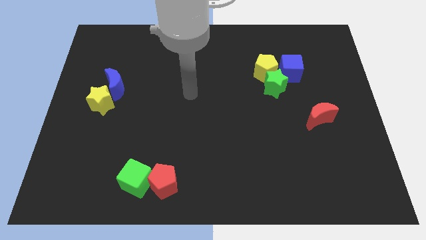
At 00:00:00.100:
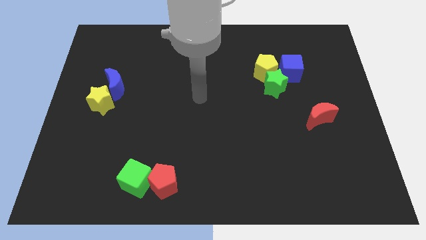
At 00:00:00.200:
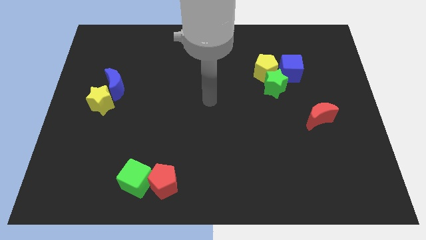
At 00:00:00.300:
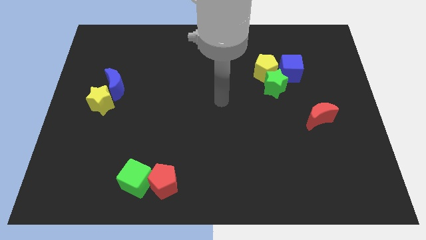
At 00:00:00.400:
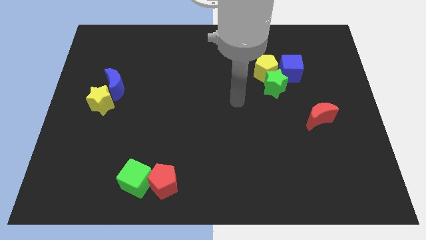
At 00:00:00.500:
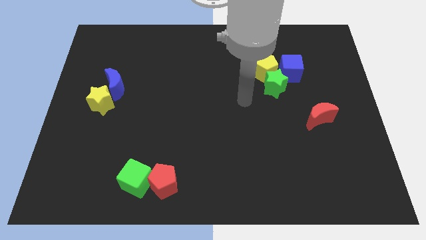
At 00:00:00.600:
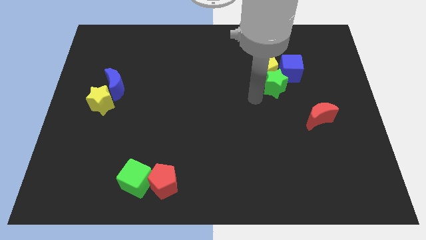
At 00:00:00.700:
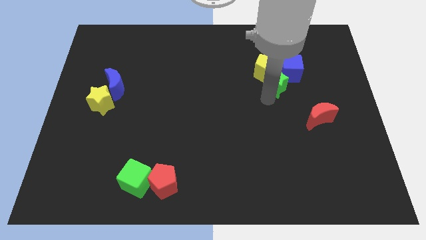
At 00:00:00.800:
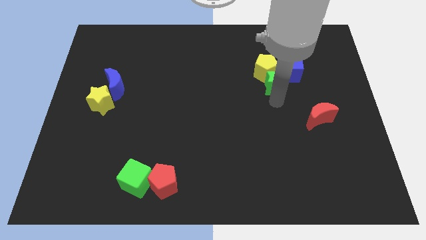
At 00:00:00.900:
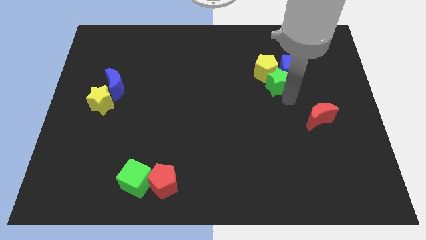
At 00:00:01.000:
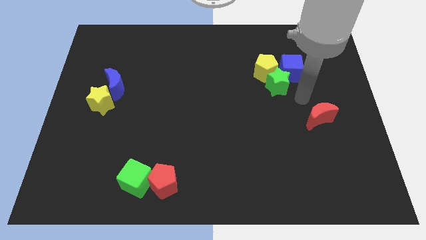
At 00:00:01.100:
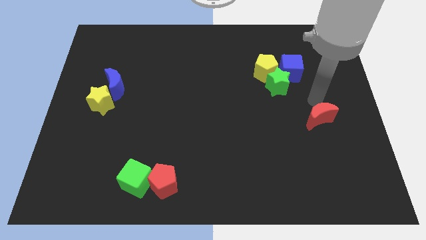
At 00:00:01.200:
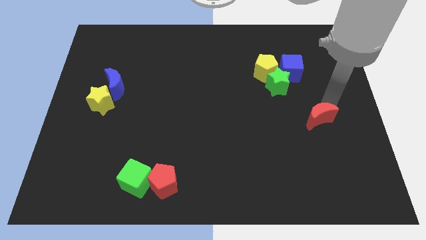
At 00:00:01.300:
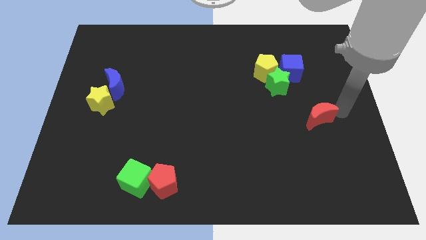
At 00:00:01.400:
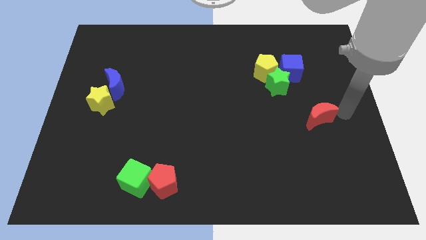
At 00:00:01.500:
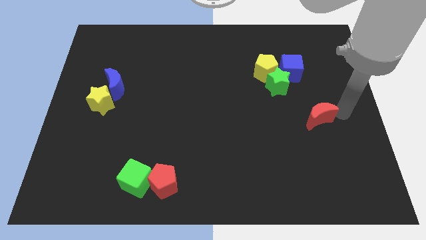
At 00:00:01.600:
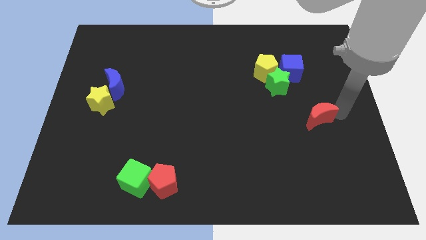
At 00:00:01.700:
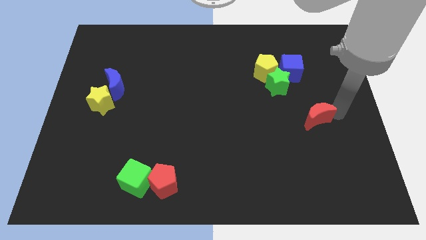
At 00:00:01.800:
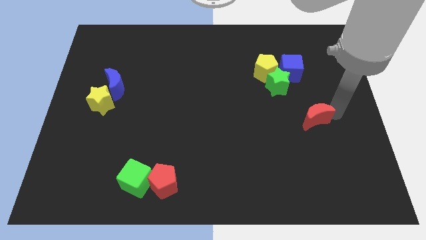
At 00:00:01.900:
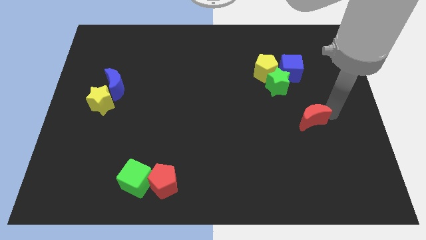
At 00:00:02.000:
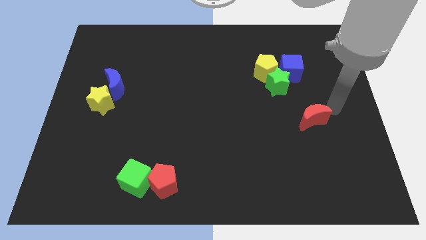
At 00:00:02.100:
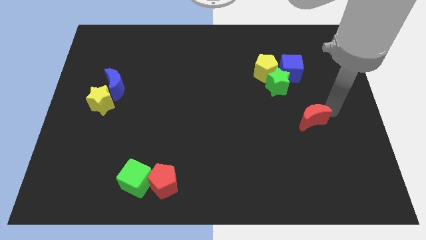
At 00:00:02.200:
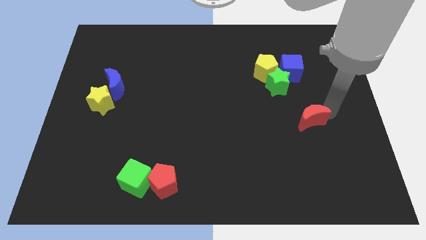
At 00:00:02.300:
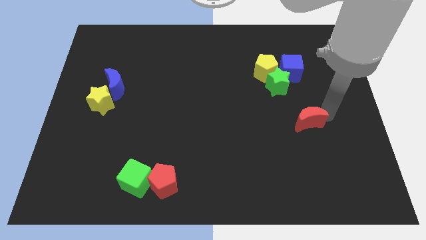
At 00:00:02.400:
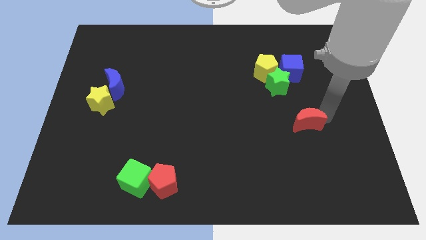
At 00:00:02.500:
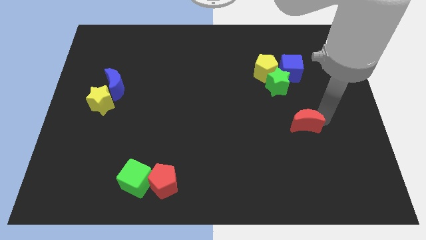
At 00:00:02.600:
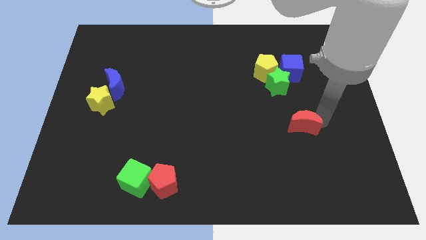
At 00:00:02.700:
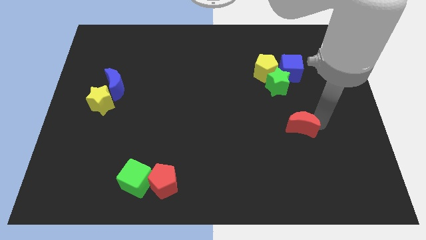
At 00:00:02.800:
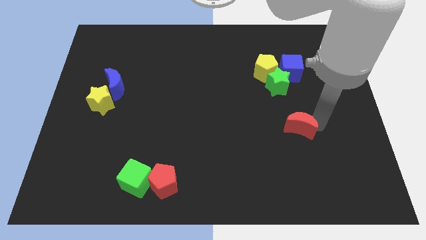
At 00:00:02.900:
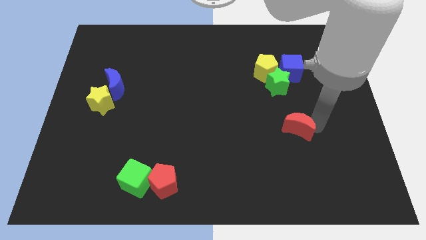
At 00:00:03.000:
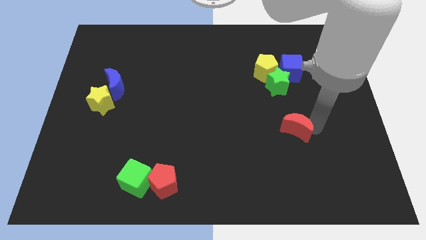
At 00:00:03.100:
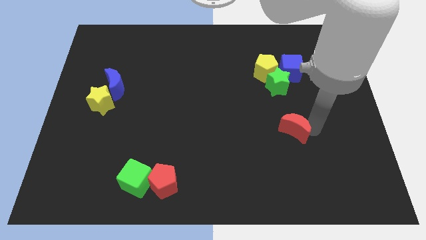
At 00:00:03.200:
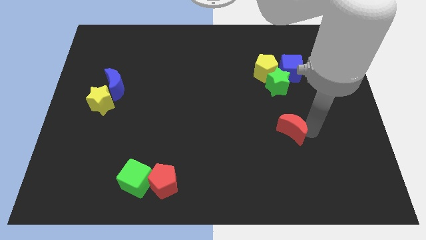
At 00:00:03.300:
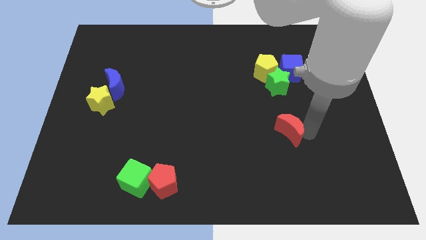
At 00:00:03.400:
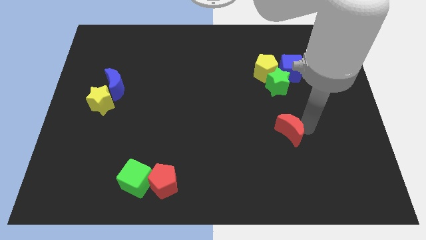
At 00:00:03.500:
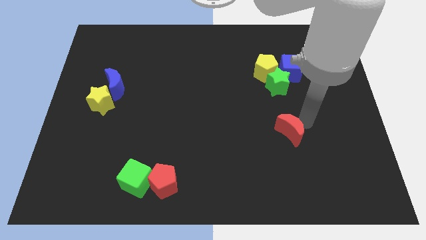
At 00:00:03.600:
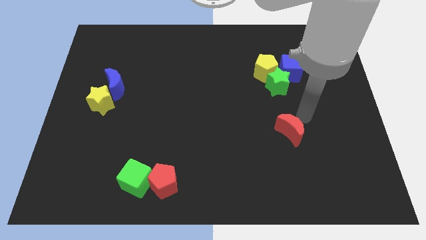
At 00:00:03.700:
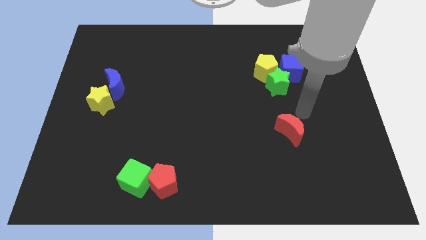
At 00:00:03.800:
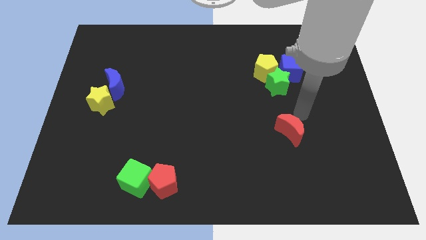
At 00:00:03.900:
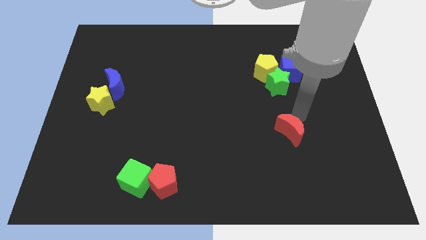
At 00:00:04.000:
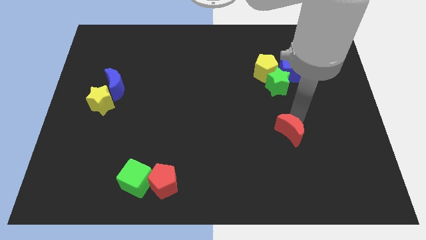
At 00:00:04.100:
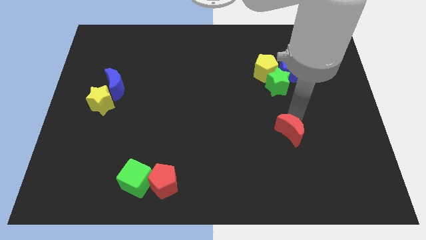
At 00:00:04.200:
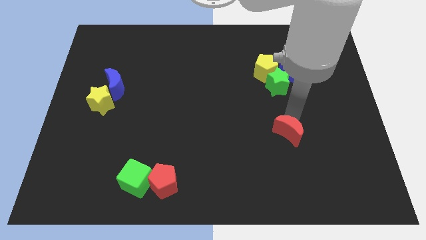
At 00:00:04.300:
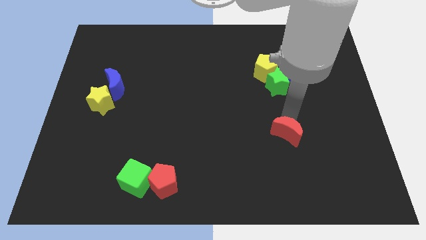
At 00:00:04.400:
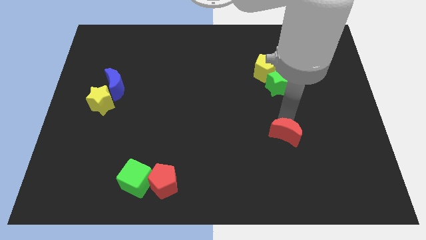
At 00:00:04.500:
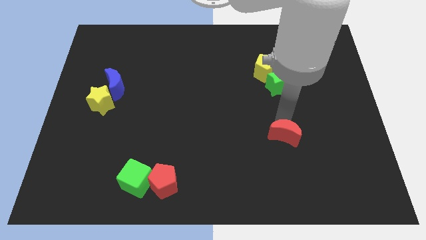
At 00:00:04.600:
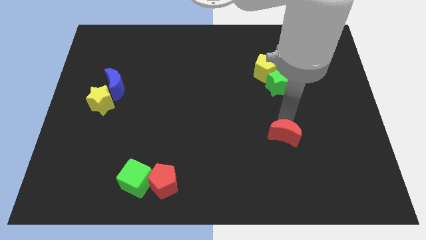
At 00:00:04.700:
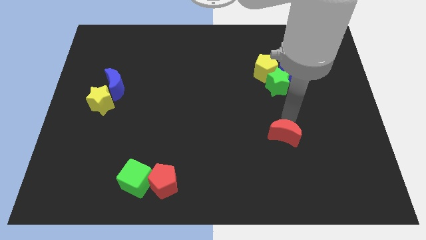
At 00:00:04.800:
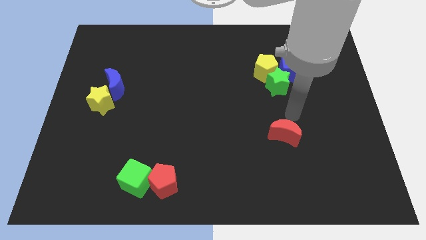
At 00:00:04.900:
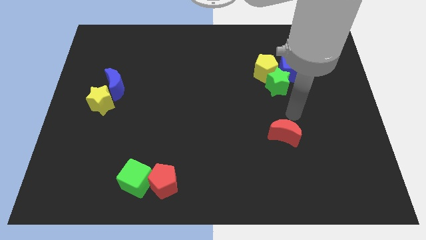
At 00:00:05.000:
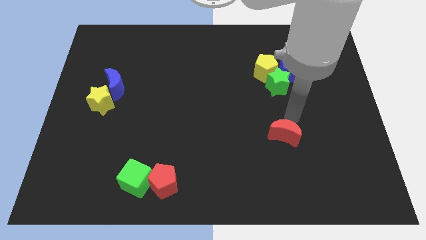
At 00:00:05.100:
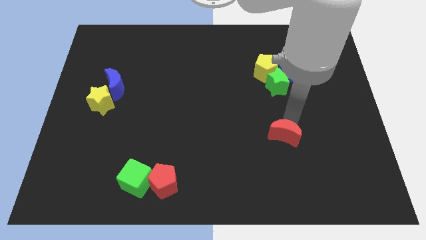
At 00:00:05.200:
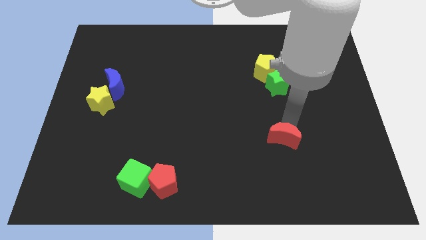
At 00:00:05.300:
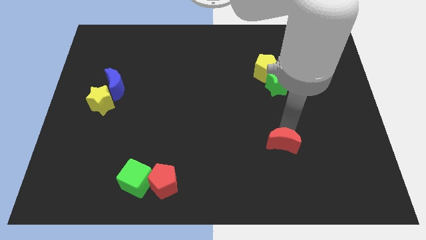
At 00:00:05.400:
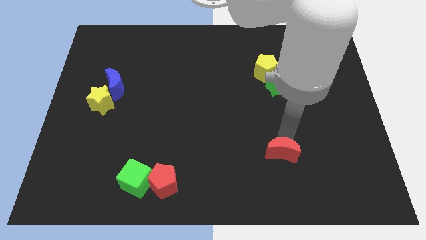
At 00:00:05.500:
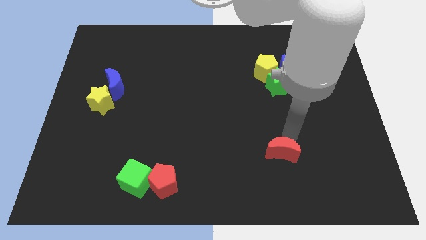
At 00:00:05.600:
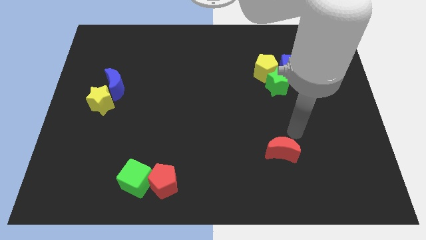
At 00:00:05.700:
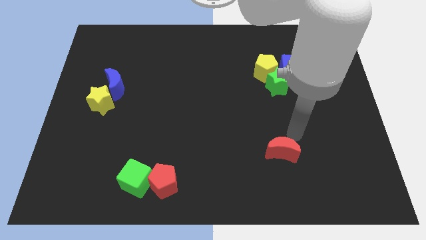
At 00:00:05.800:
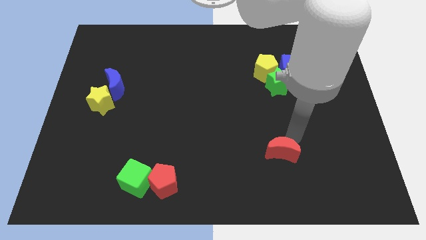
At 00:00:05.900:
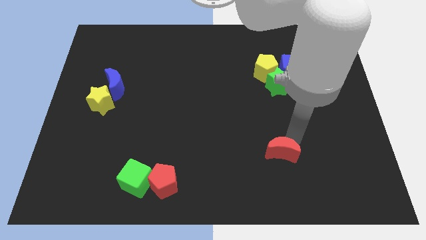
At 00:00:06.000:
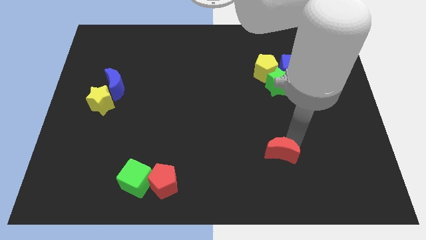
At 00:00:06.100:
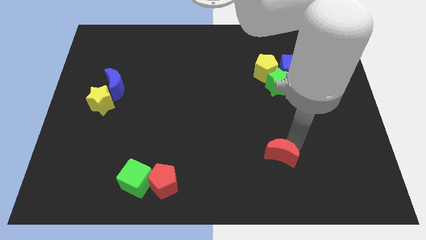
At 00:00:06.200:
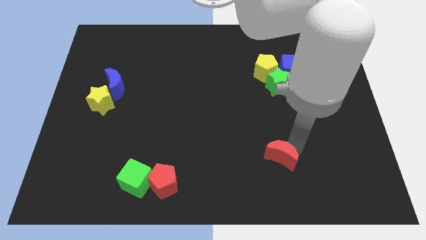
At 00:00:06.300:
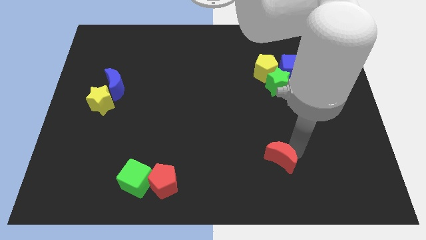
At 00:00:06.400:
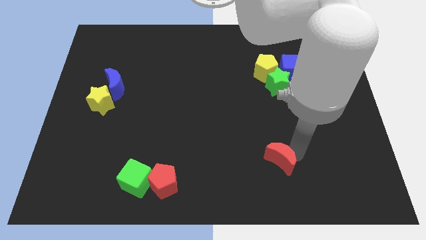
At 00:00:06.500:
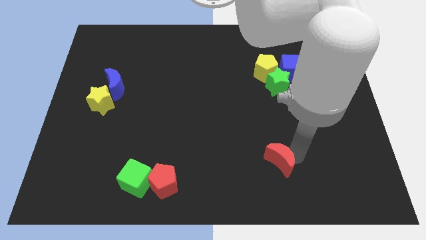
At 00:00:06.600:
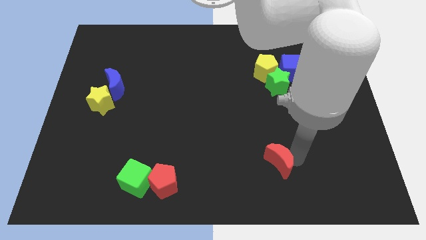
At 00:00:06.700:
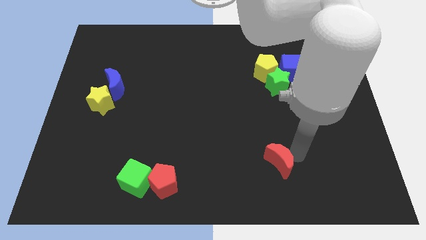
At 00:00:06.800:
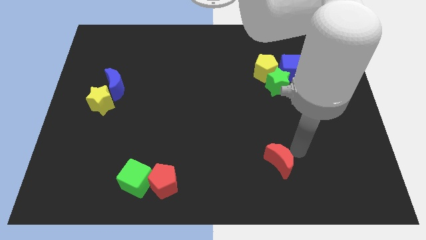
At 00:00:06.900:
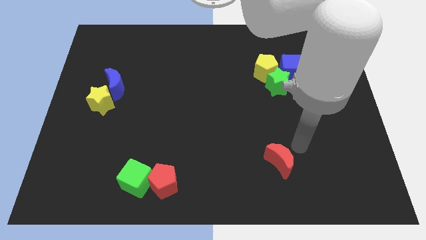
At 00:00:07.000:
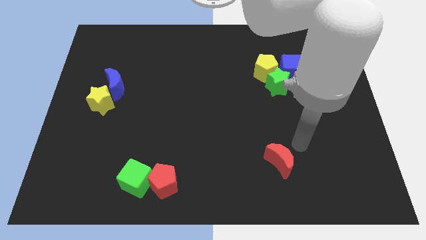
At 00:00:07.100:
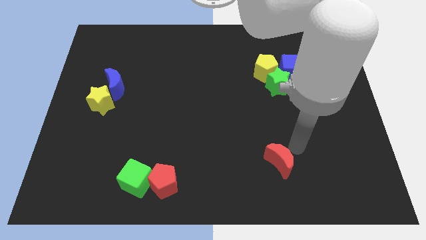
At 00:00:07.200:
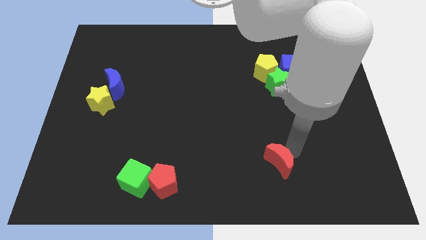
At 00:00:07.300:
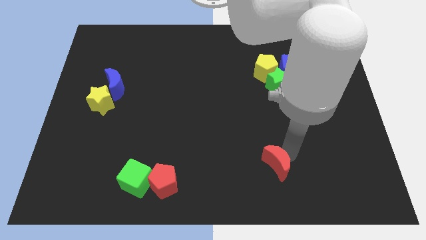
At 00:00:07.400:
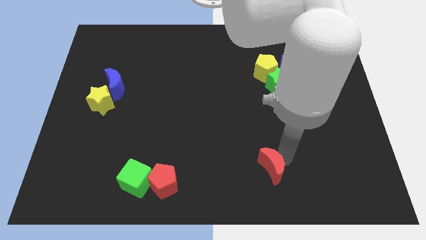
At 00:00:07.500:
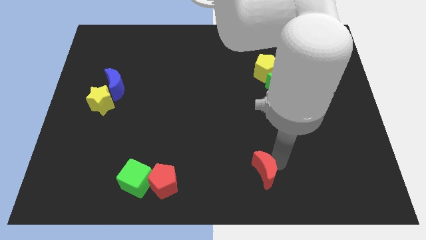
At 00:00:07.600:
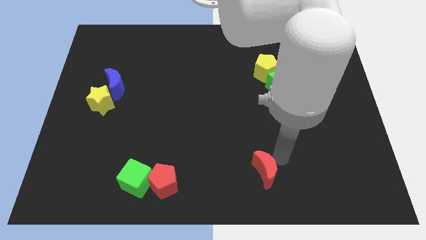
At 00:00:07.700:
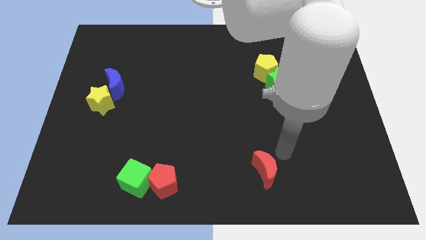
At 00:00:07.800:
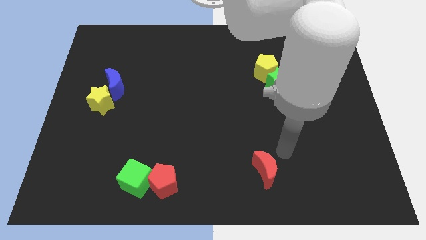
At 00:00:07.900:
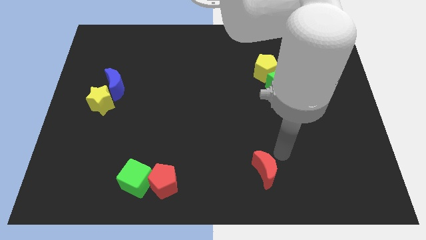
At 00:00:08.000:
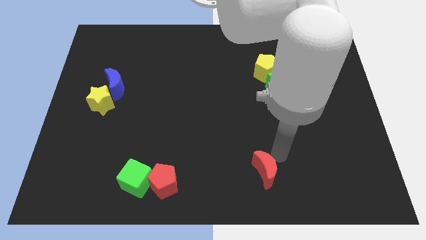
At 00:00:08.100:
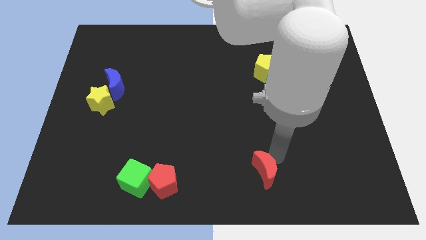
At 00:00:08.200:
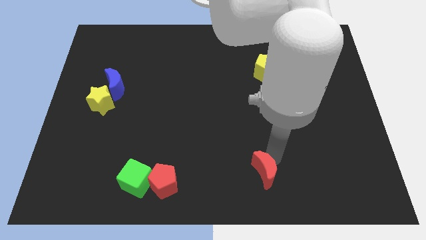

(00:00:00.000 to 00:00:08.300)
put the red moon to the bottom
